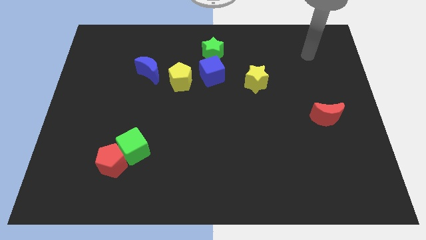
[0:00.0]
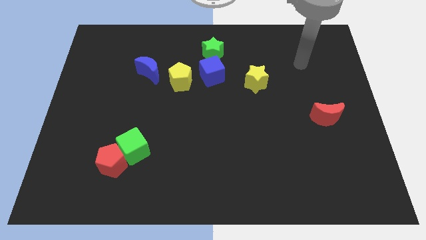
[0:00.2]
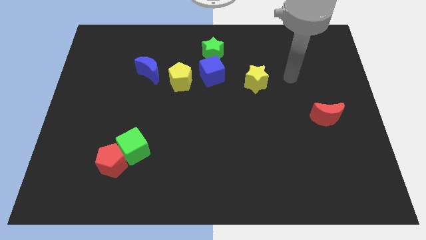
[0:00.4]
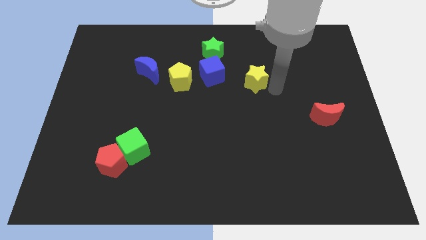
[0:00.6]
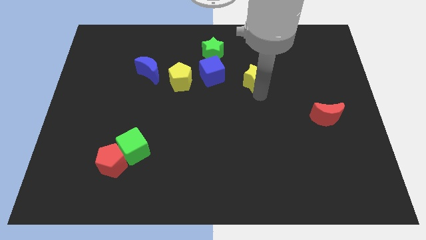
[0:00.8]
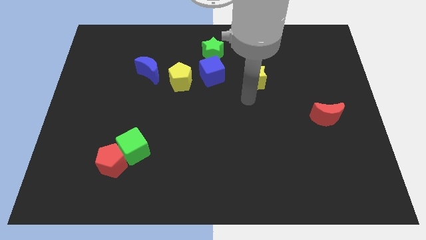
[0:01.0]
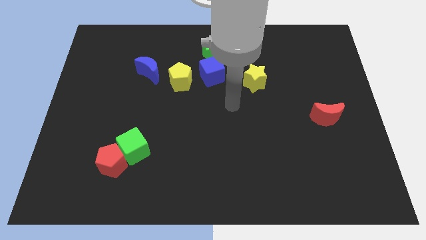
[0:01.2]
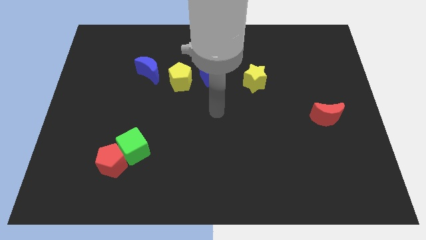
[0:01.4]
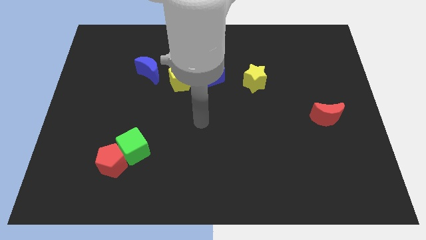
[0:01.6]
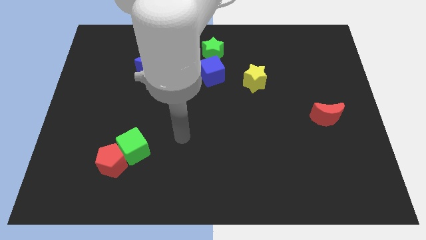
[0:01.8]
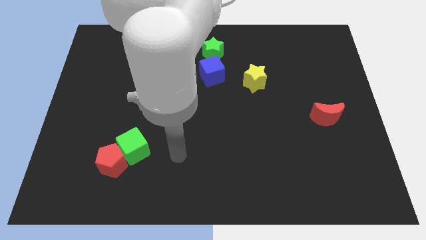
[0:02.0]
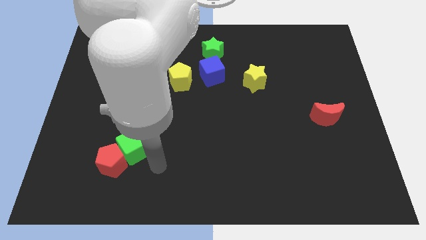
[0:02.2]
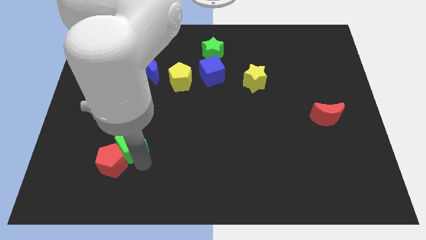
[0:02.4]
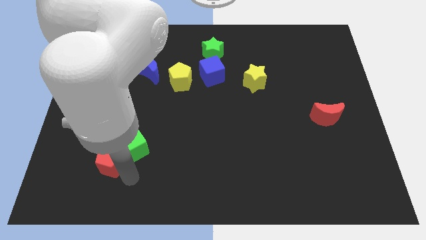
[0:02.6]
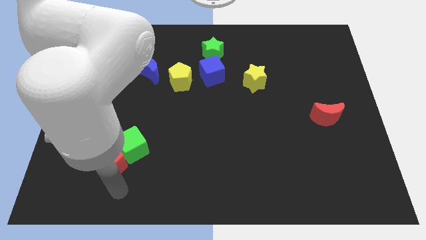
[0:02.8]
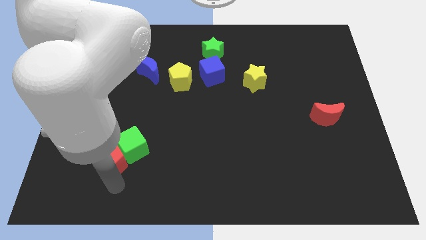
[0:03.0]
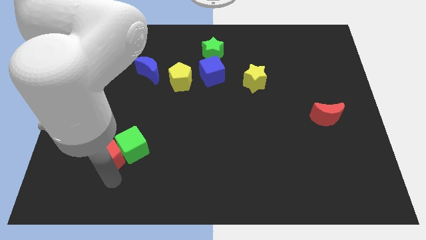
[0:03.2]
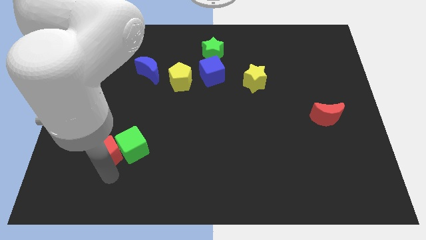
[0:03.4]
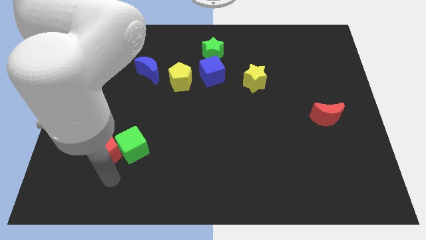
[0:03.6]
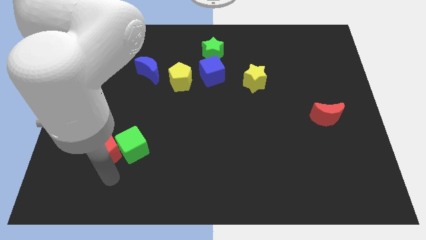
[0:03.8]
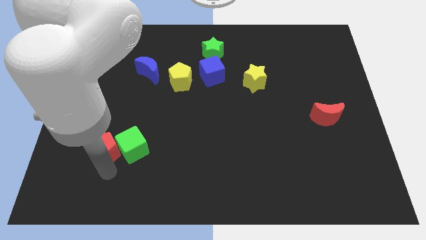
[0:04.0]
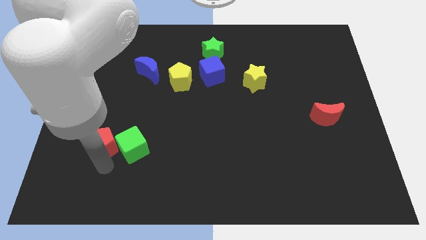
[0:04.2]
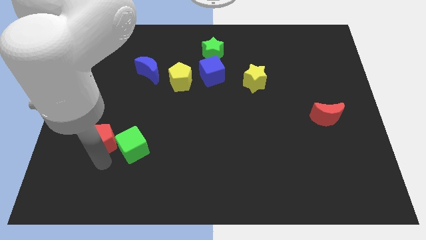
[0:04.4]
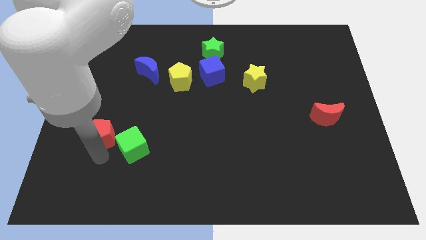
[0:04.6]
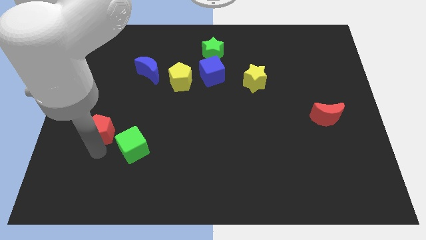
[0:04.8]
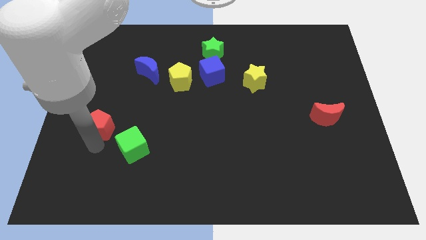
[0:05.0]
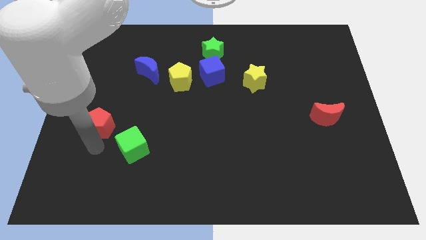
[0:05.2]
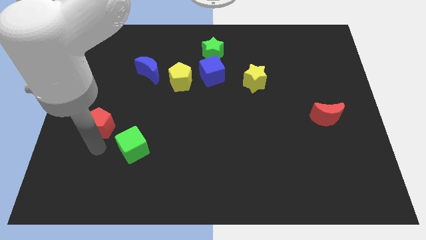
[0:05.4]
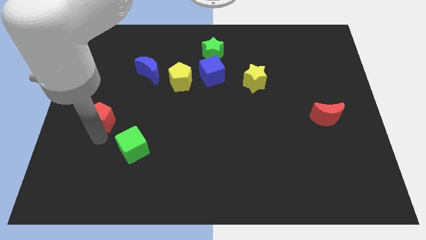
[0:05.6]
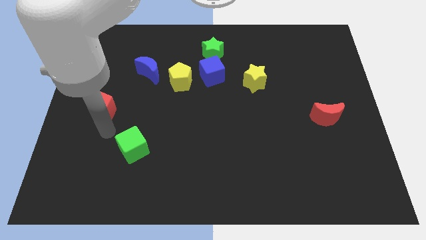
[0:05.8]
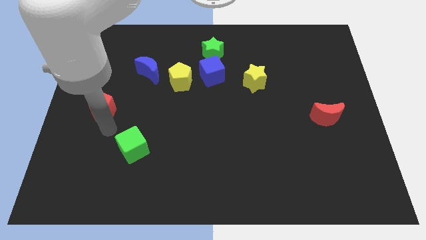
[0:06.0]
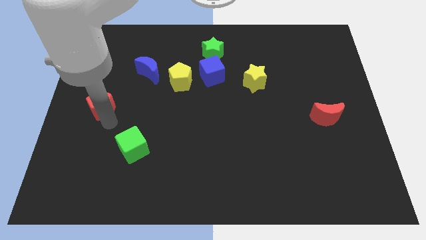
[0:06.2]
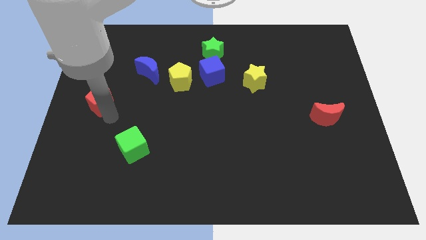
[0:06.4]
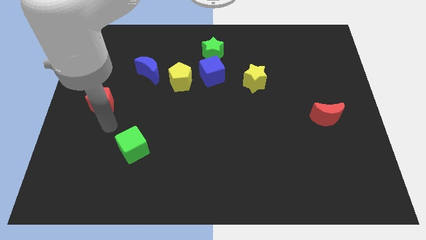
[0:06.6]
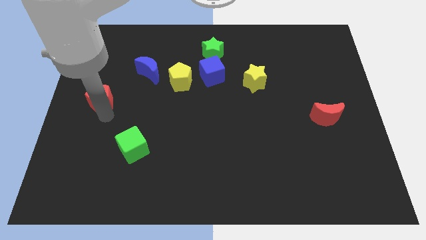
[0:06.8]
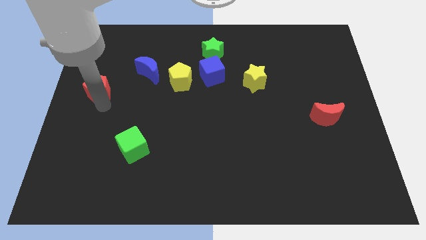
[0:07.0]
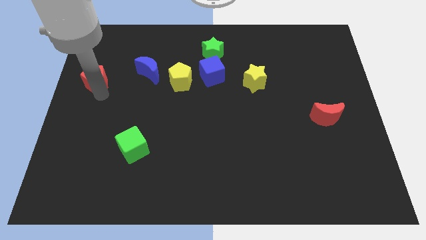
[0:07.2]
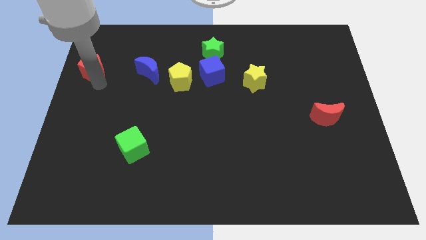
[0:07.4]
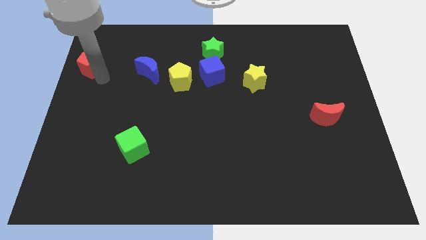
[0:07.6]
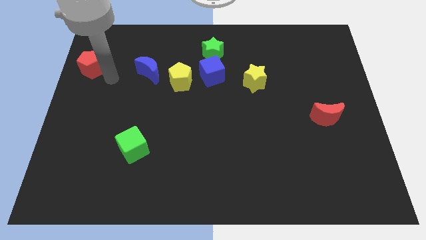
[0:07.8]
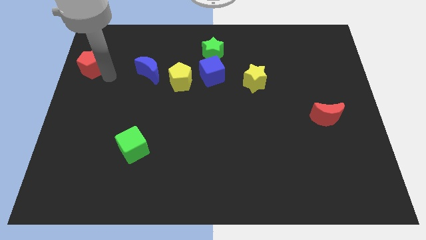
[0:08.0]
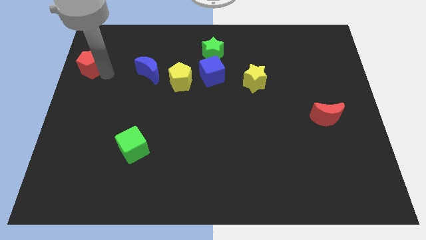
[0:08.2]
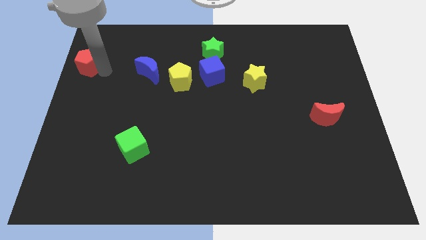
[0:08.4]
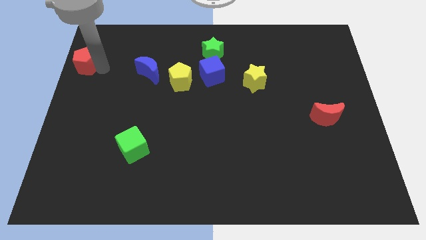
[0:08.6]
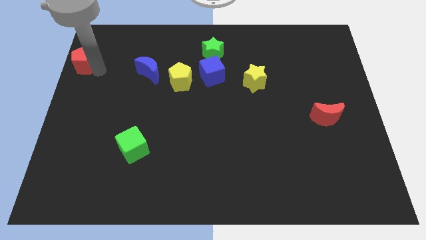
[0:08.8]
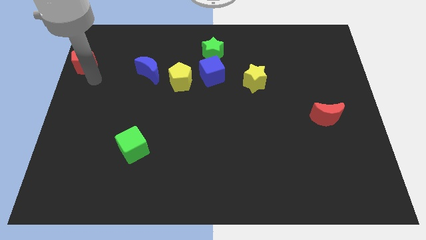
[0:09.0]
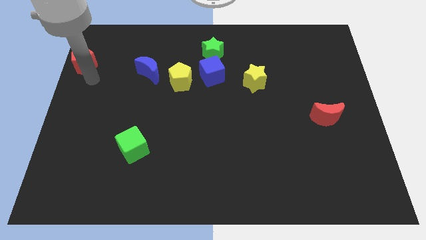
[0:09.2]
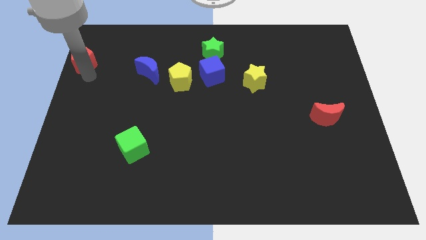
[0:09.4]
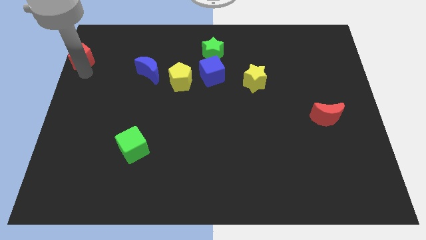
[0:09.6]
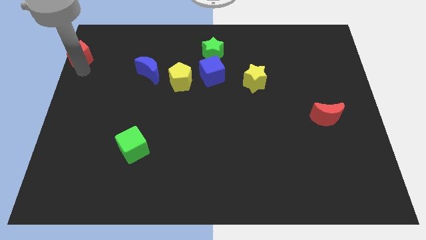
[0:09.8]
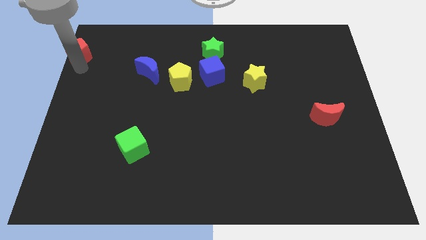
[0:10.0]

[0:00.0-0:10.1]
move the red pentagon to the top left of the board
